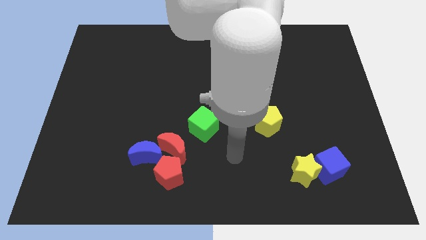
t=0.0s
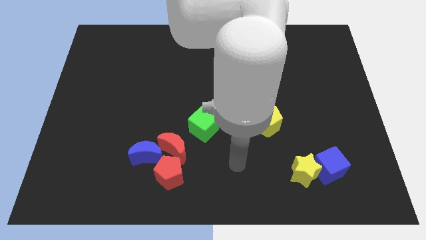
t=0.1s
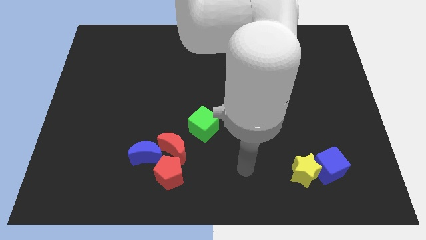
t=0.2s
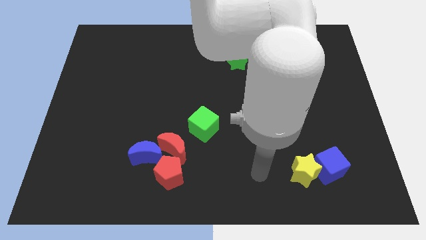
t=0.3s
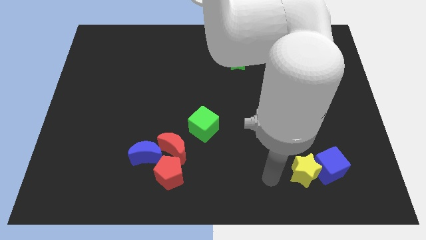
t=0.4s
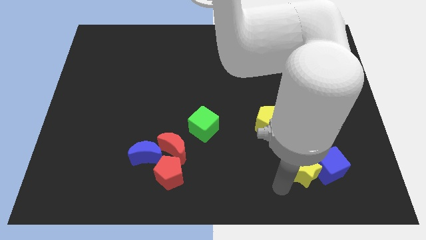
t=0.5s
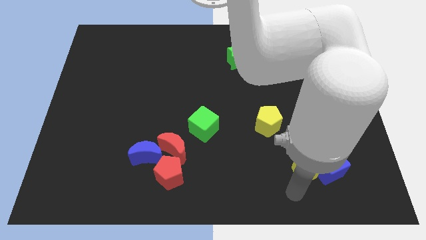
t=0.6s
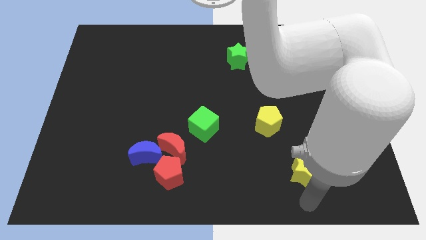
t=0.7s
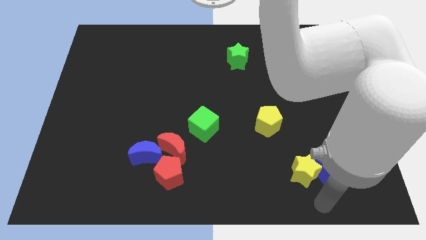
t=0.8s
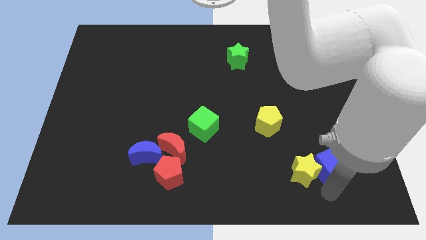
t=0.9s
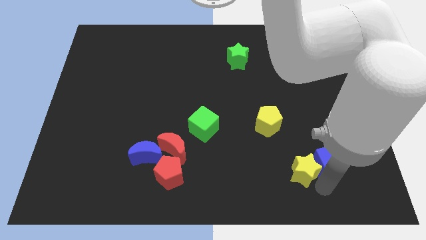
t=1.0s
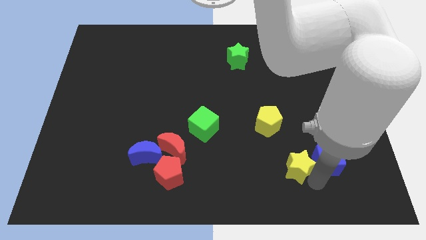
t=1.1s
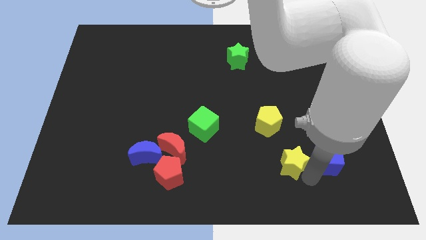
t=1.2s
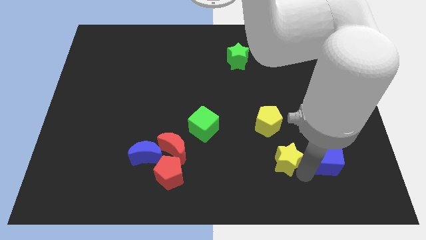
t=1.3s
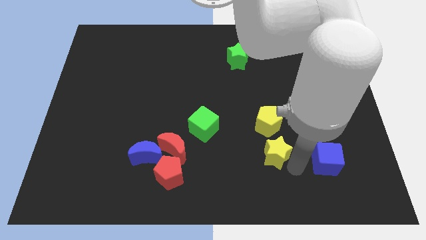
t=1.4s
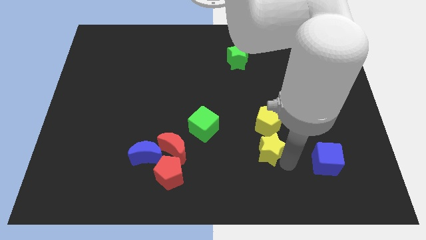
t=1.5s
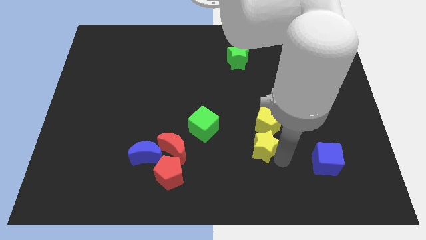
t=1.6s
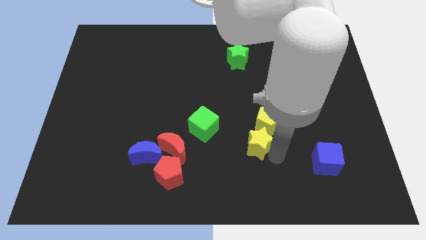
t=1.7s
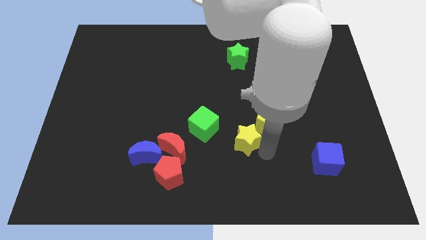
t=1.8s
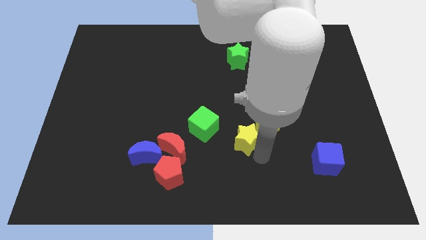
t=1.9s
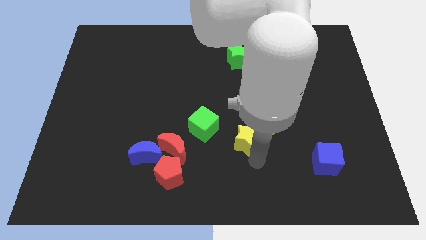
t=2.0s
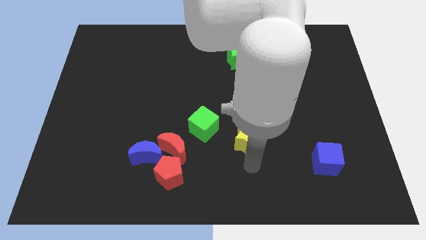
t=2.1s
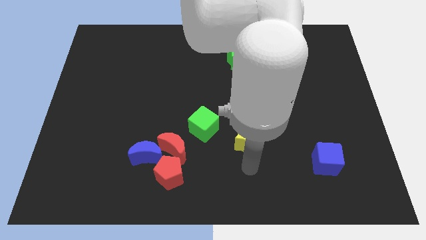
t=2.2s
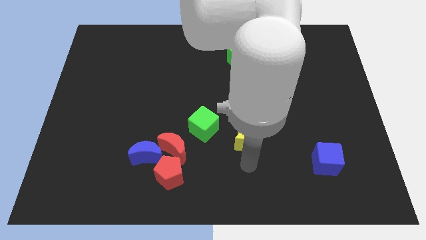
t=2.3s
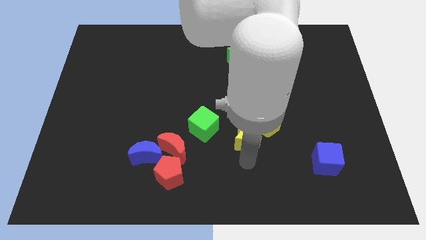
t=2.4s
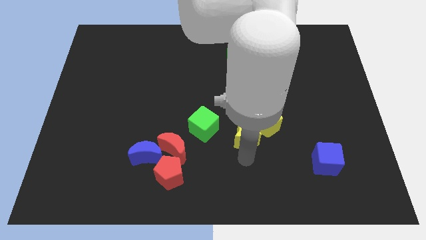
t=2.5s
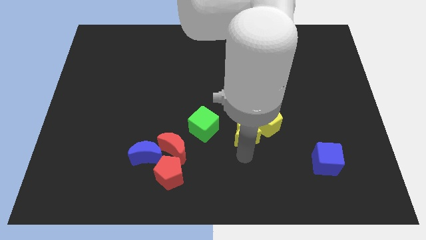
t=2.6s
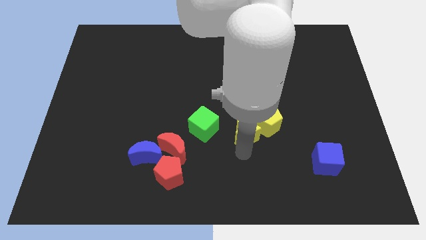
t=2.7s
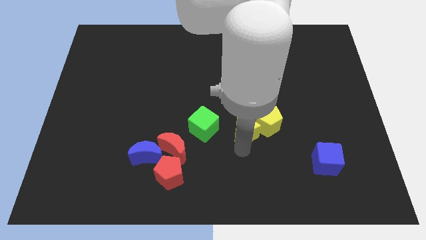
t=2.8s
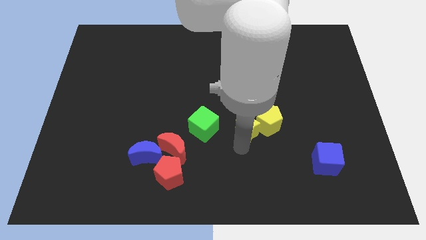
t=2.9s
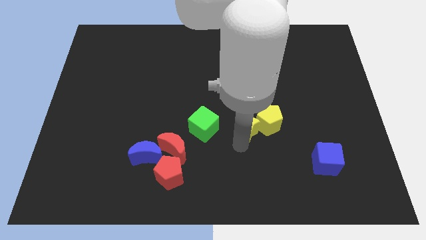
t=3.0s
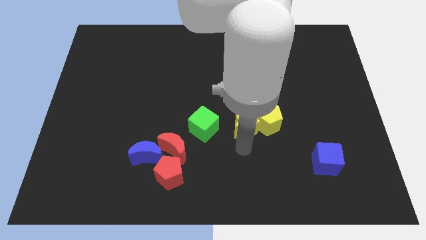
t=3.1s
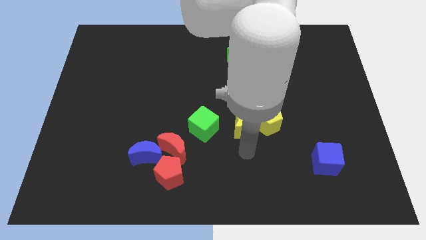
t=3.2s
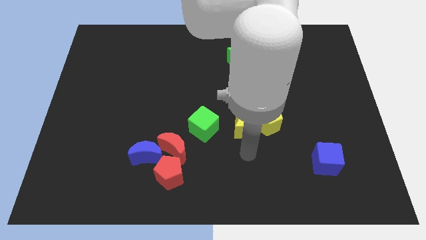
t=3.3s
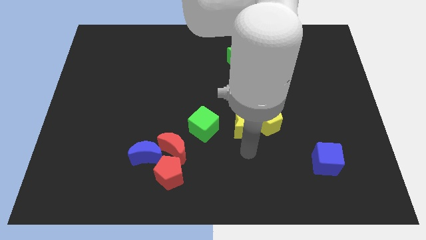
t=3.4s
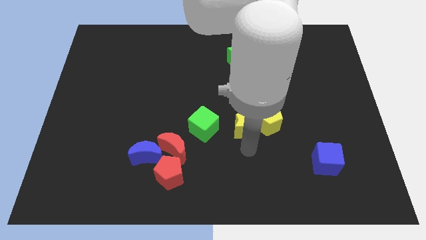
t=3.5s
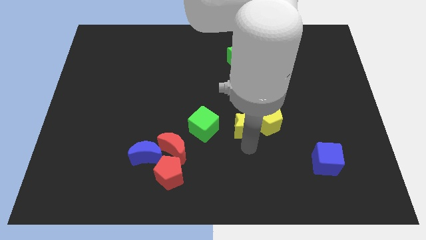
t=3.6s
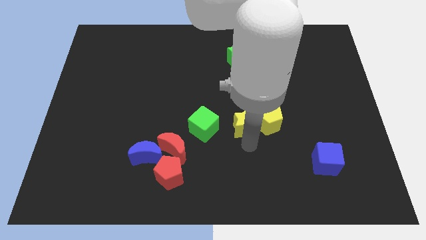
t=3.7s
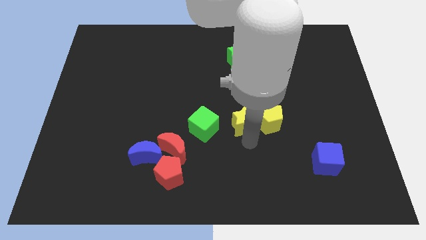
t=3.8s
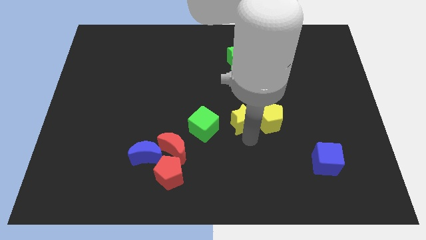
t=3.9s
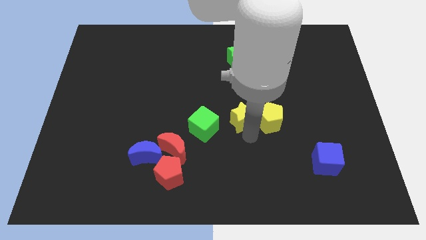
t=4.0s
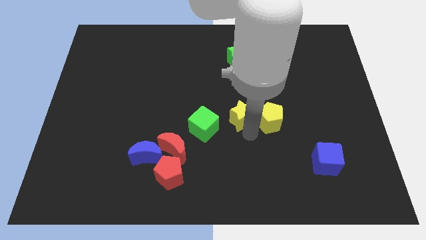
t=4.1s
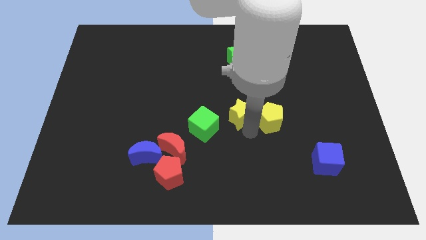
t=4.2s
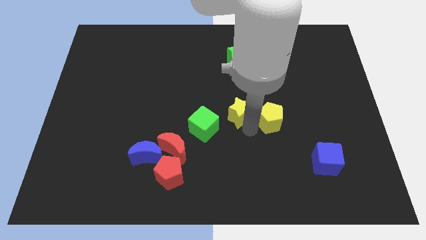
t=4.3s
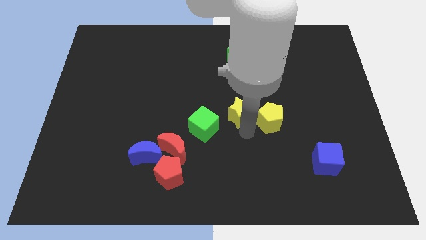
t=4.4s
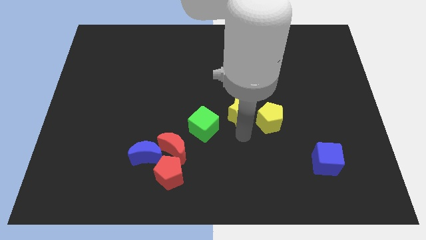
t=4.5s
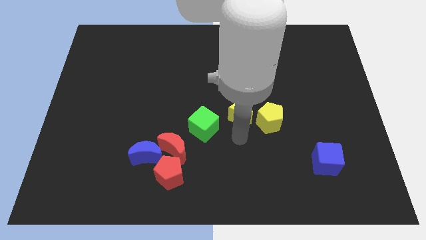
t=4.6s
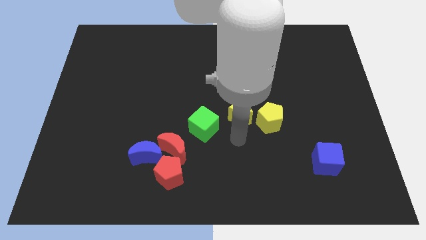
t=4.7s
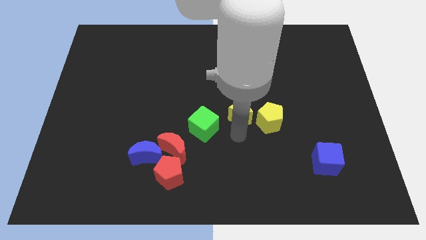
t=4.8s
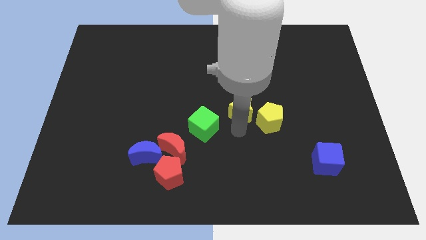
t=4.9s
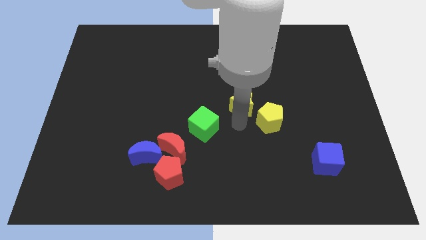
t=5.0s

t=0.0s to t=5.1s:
slide the yellow star to the bottom side of the green star

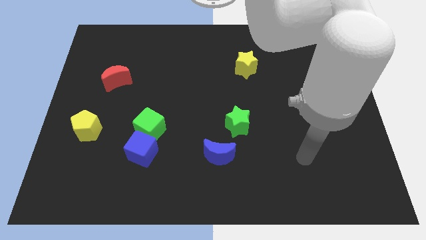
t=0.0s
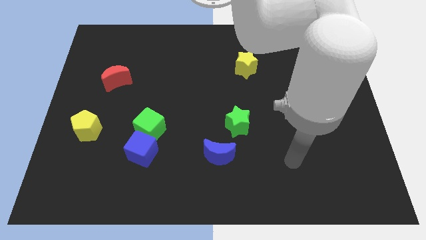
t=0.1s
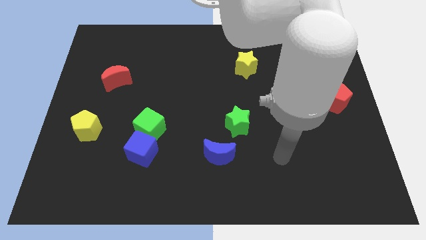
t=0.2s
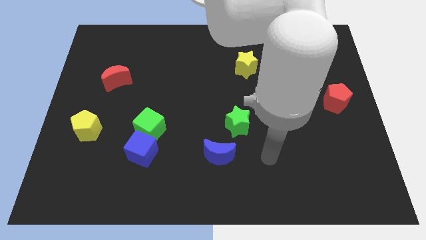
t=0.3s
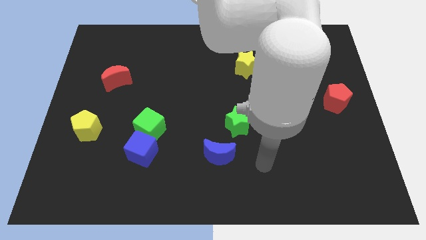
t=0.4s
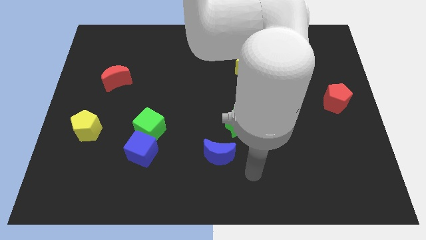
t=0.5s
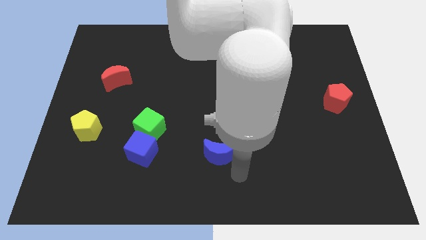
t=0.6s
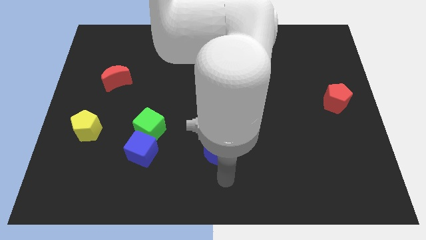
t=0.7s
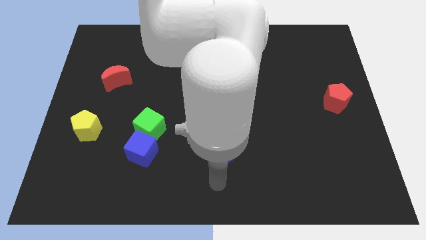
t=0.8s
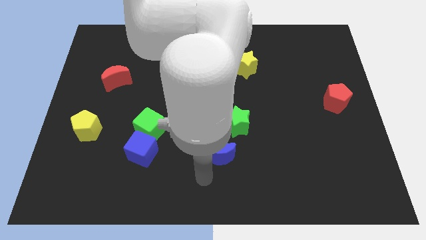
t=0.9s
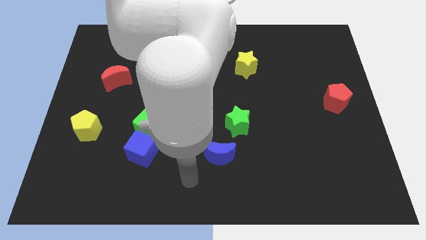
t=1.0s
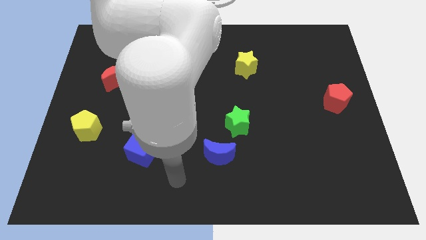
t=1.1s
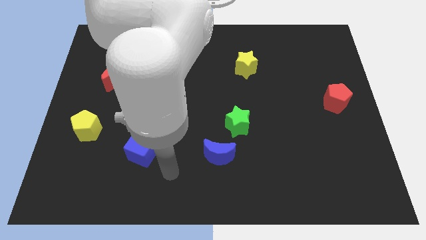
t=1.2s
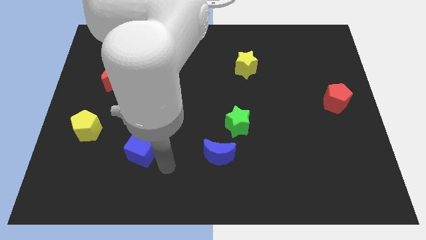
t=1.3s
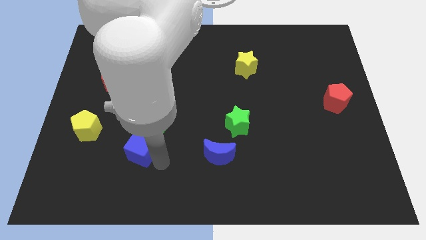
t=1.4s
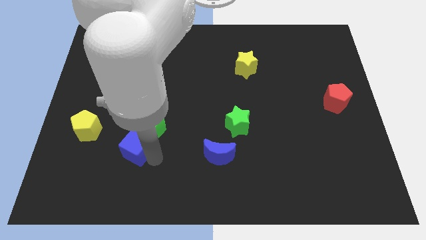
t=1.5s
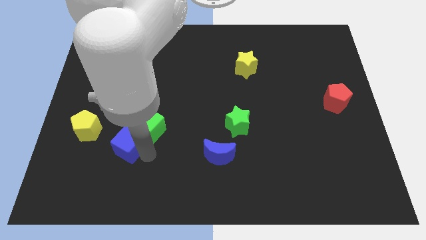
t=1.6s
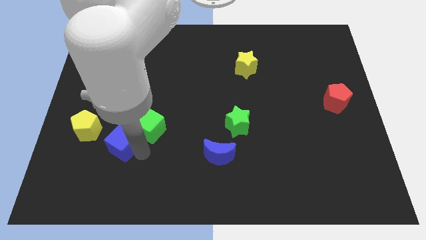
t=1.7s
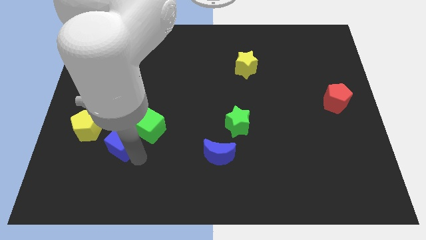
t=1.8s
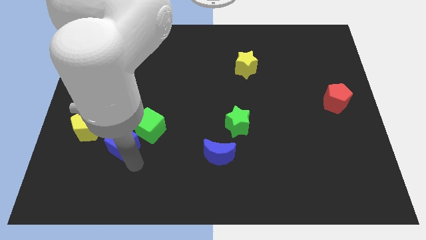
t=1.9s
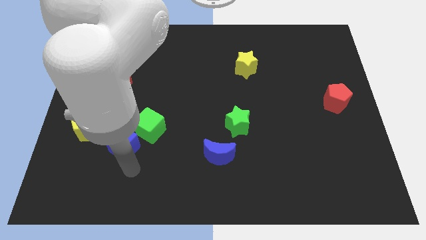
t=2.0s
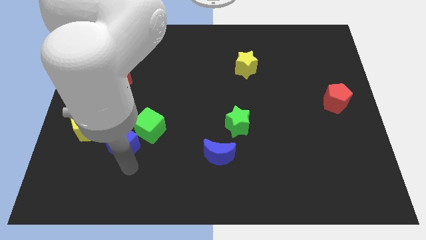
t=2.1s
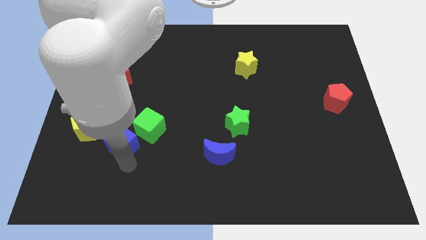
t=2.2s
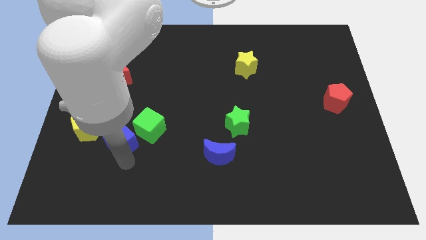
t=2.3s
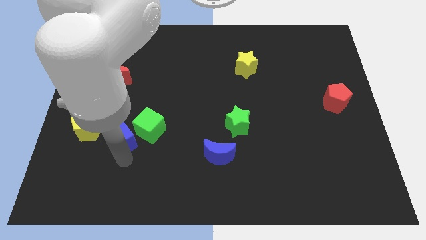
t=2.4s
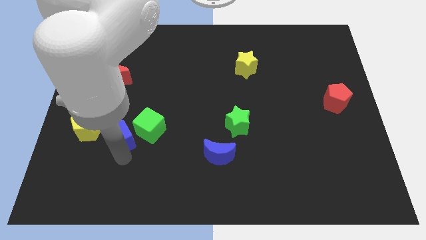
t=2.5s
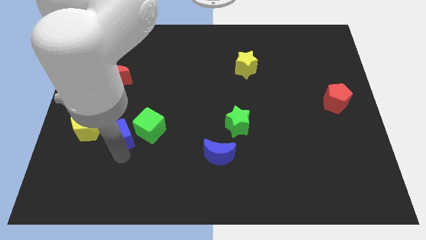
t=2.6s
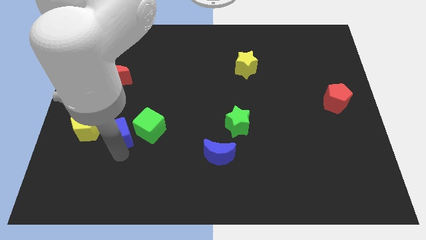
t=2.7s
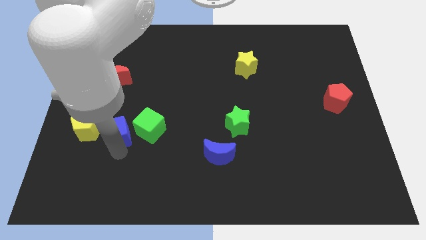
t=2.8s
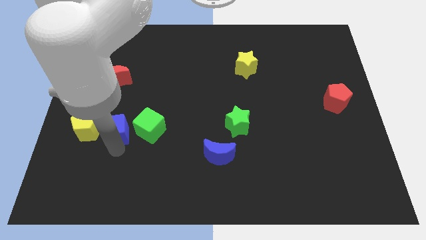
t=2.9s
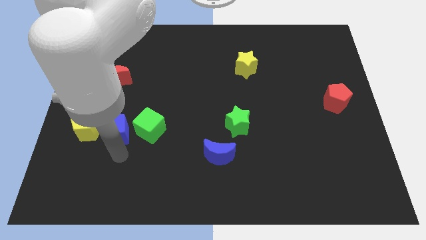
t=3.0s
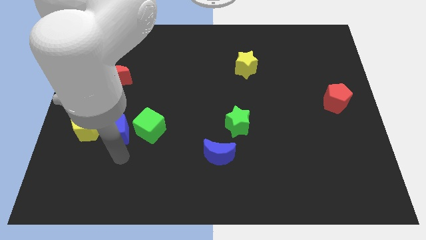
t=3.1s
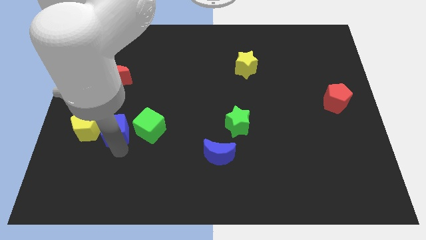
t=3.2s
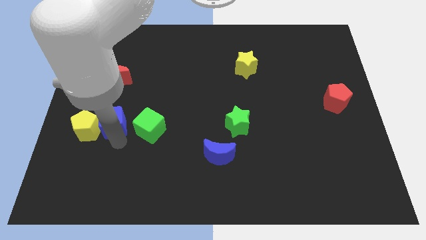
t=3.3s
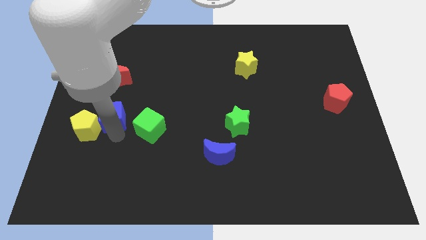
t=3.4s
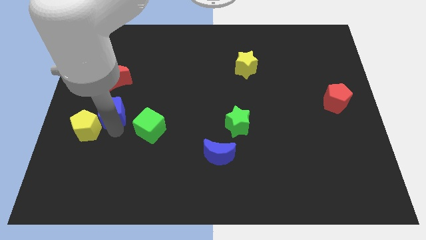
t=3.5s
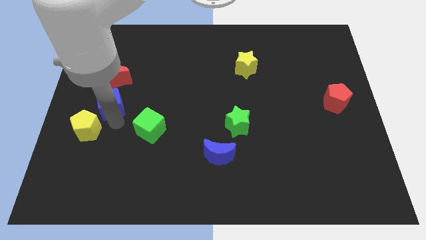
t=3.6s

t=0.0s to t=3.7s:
move the blue cube above the yellow pentagon
